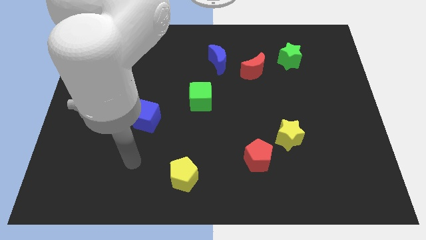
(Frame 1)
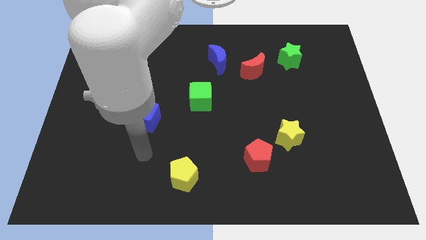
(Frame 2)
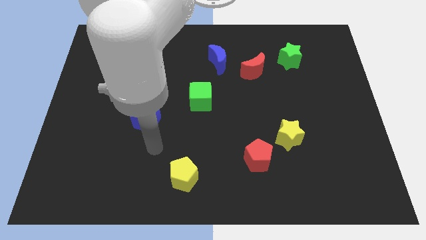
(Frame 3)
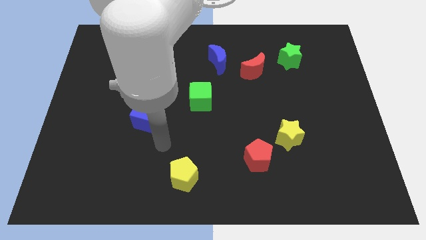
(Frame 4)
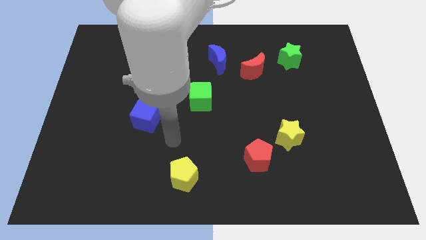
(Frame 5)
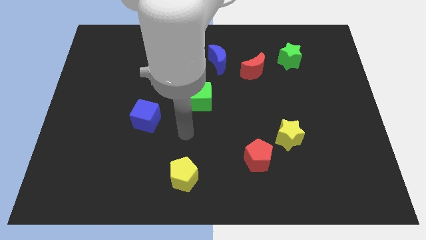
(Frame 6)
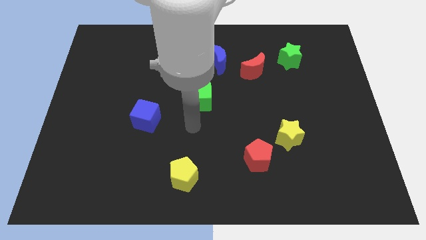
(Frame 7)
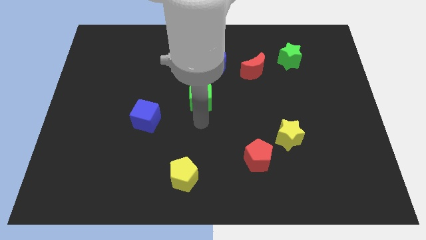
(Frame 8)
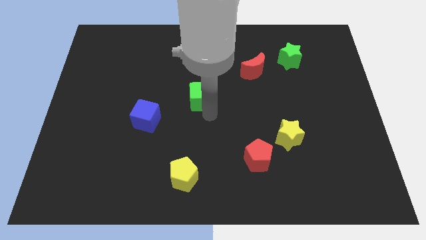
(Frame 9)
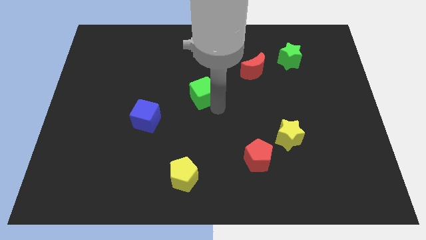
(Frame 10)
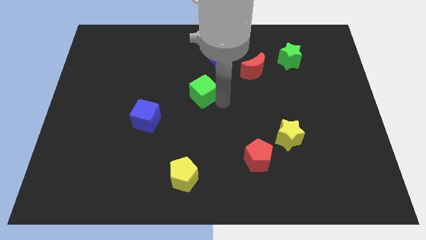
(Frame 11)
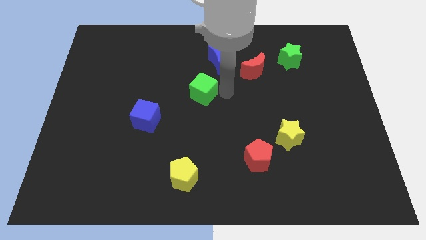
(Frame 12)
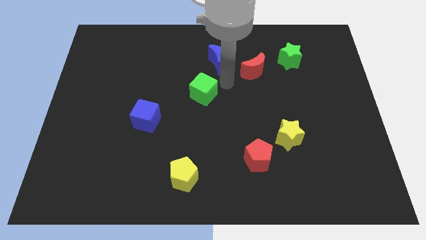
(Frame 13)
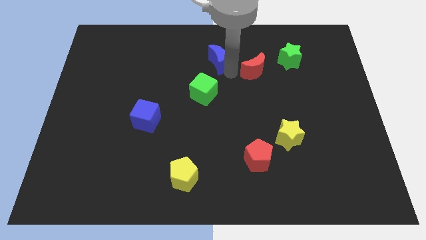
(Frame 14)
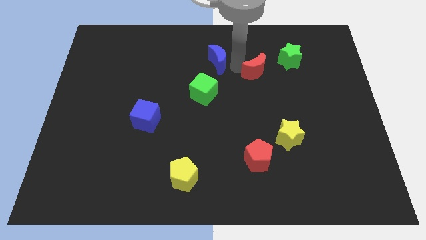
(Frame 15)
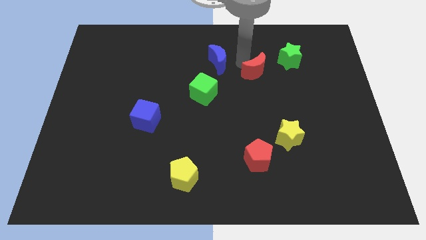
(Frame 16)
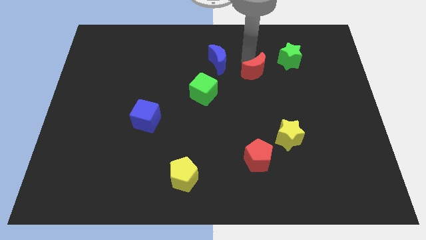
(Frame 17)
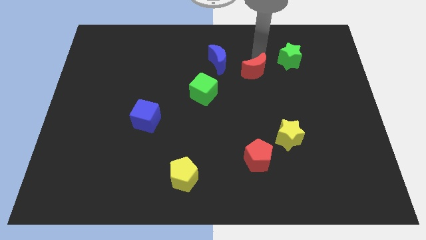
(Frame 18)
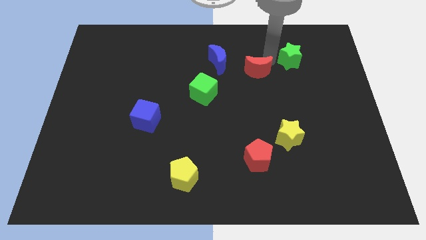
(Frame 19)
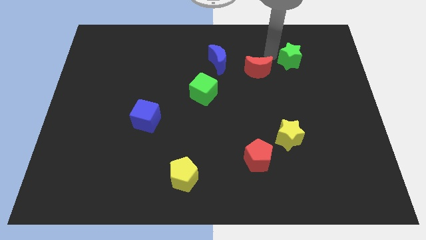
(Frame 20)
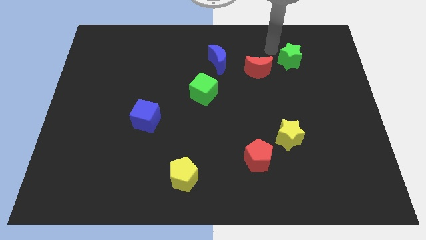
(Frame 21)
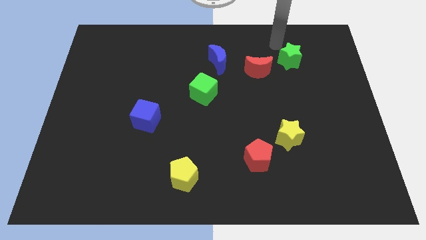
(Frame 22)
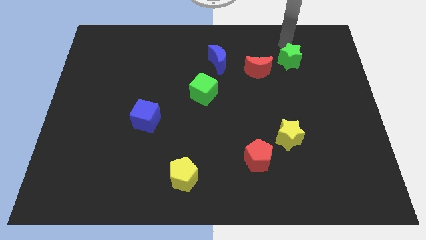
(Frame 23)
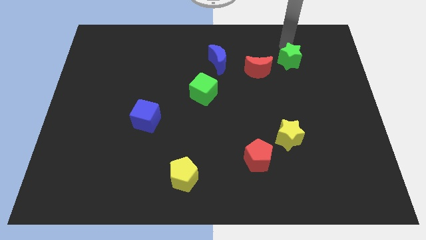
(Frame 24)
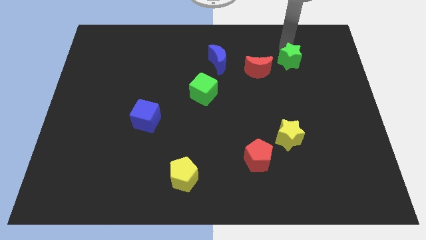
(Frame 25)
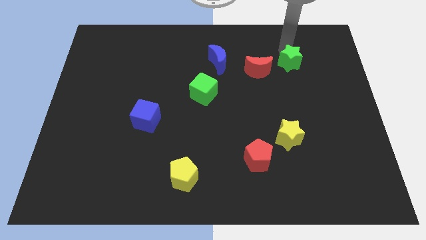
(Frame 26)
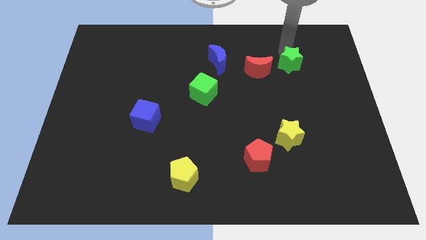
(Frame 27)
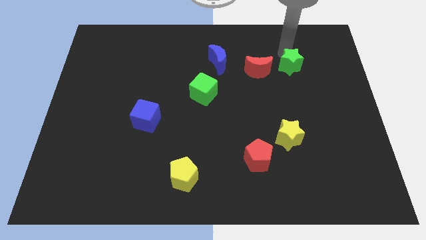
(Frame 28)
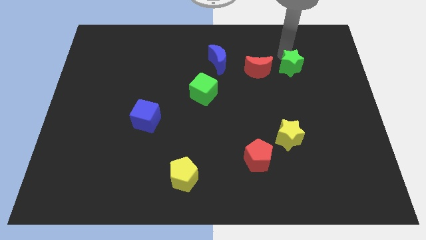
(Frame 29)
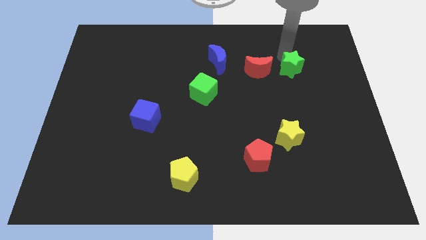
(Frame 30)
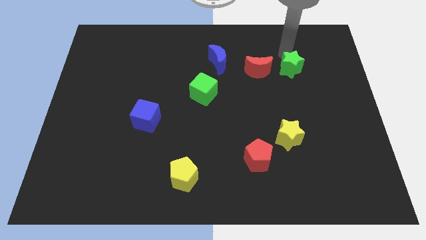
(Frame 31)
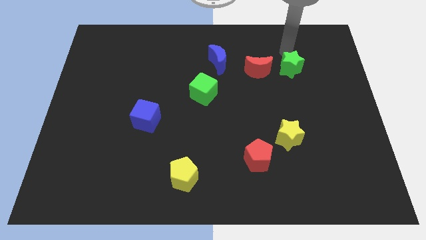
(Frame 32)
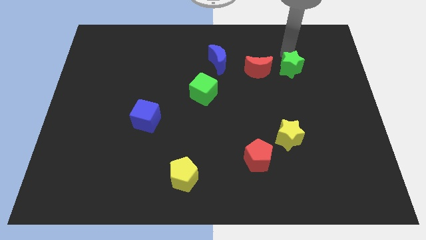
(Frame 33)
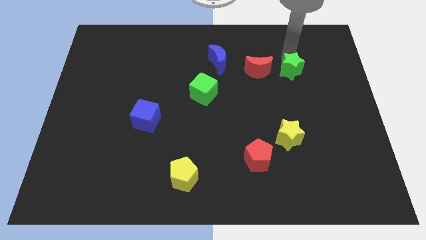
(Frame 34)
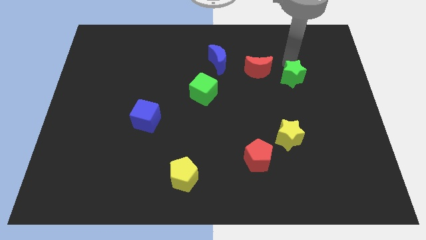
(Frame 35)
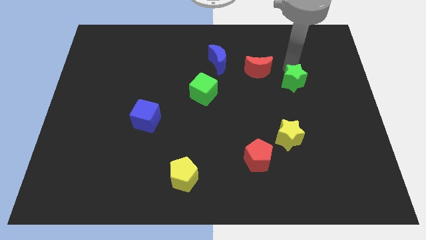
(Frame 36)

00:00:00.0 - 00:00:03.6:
push the green star downwards slightly

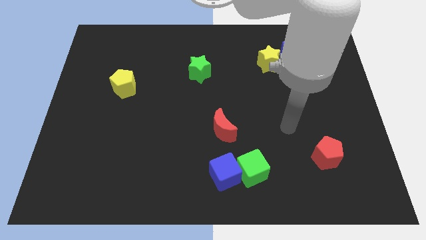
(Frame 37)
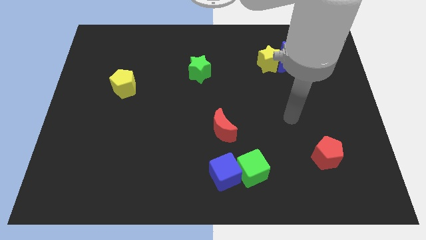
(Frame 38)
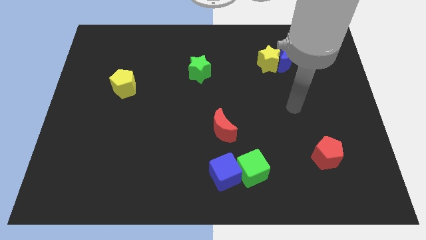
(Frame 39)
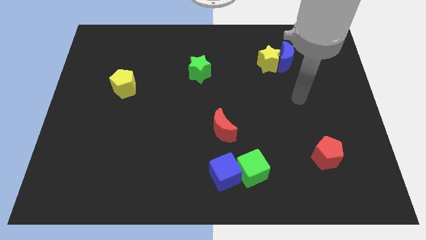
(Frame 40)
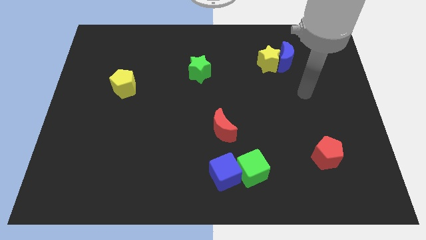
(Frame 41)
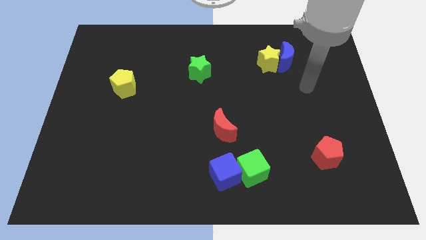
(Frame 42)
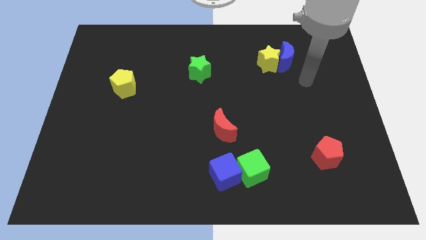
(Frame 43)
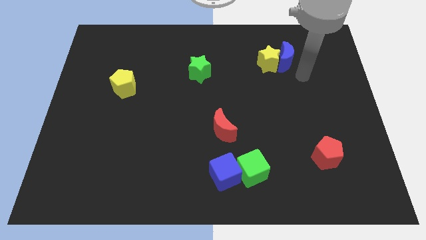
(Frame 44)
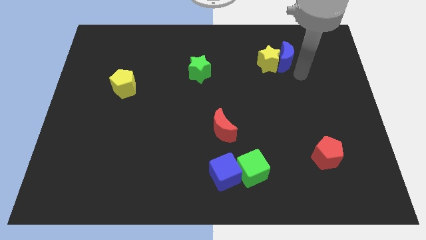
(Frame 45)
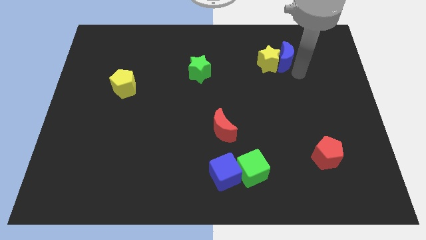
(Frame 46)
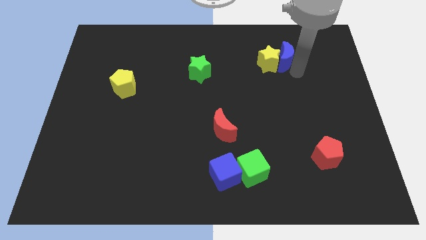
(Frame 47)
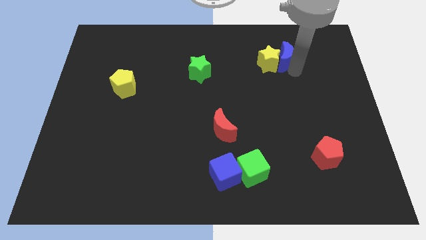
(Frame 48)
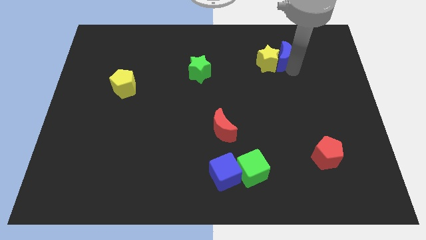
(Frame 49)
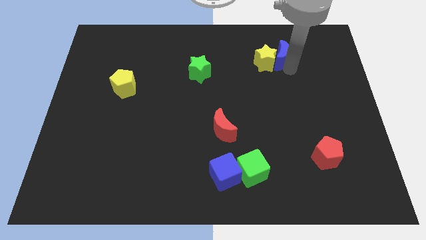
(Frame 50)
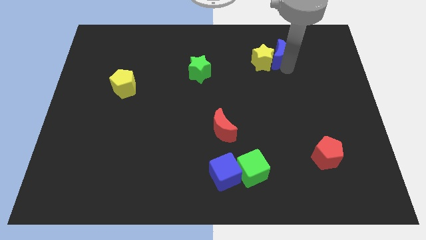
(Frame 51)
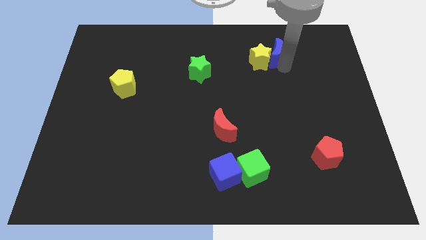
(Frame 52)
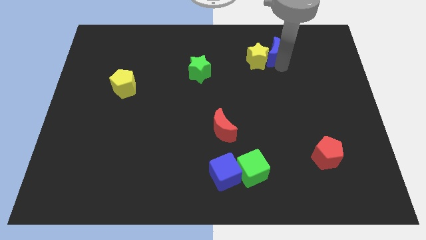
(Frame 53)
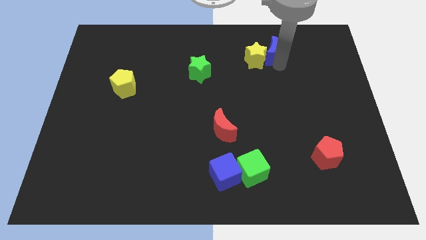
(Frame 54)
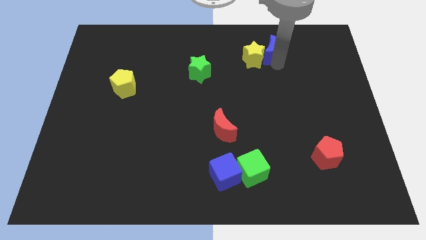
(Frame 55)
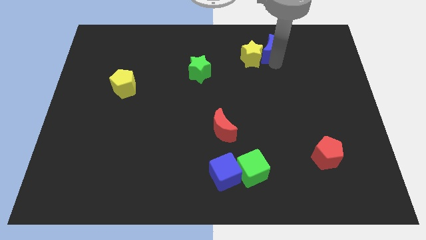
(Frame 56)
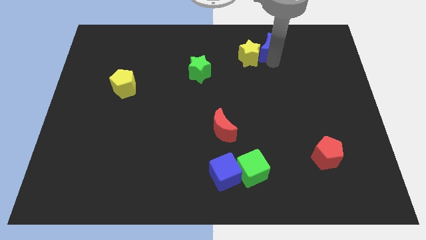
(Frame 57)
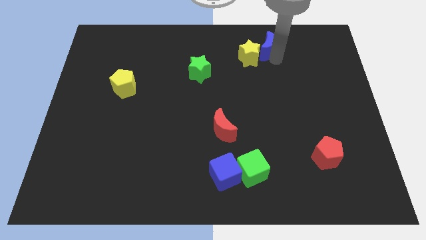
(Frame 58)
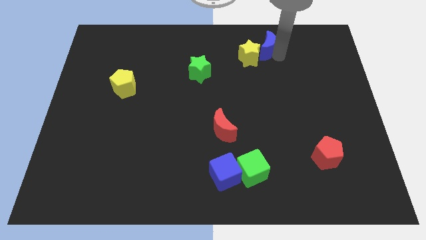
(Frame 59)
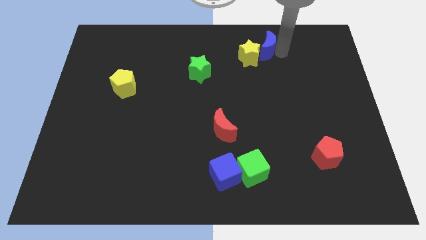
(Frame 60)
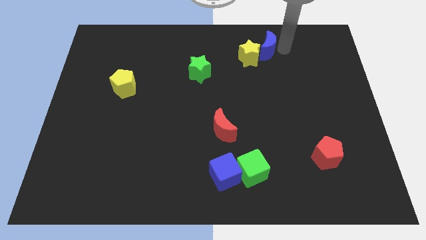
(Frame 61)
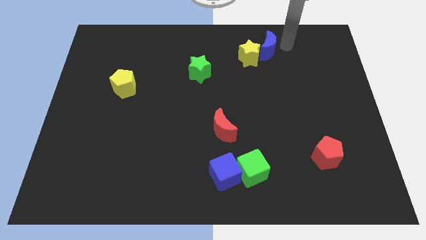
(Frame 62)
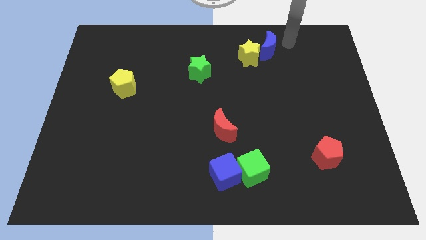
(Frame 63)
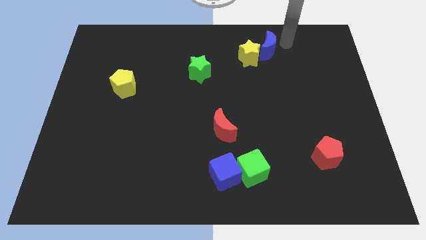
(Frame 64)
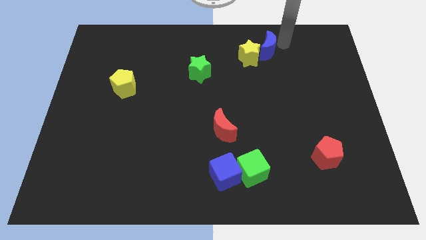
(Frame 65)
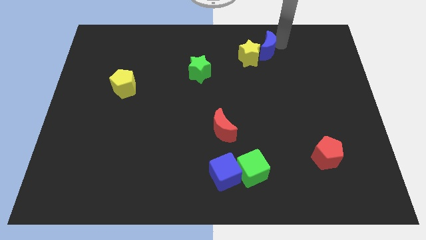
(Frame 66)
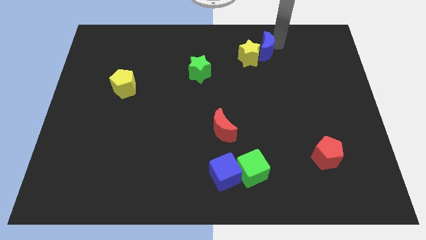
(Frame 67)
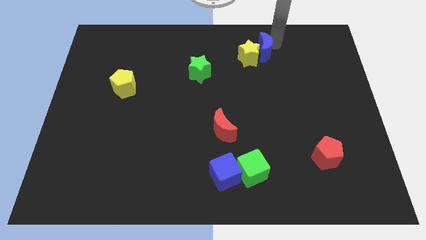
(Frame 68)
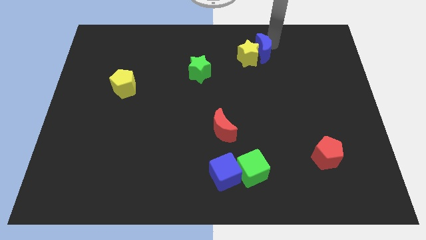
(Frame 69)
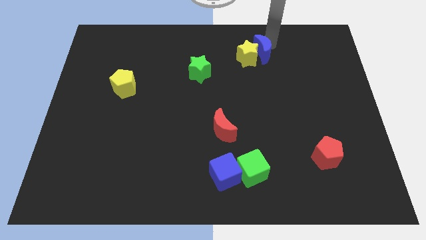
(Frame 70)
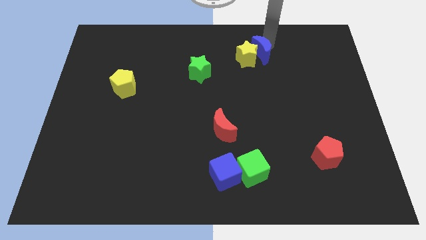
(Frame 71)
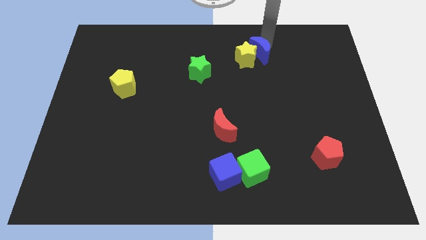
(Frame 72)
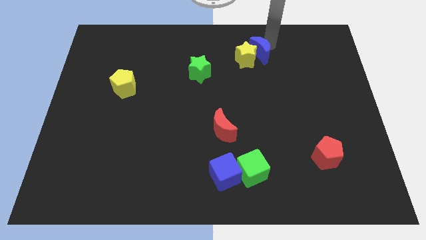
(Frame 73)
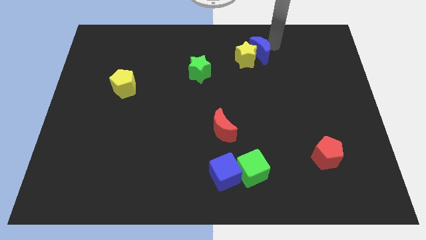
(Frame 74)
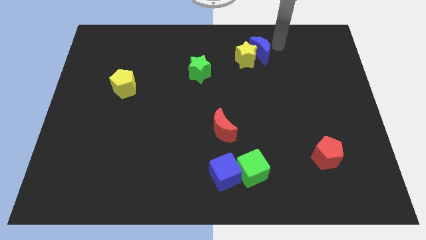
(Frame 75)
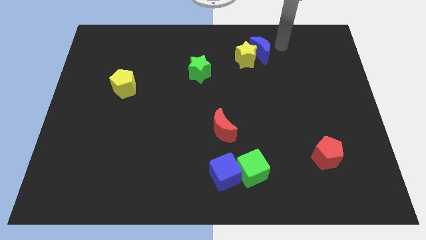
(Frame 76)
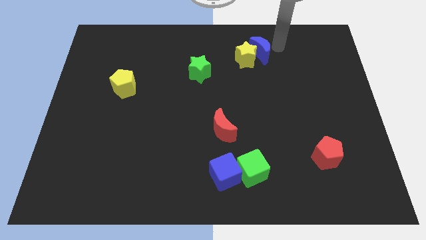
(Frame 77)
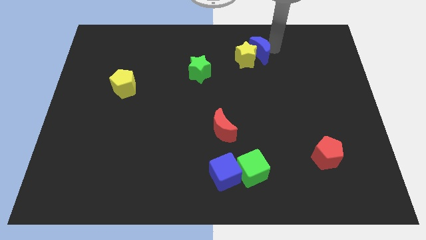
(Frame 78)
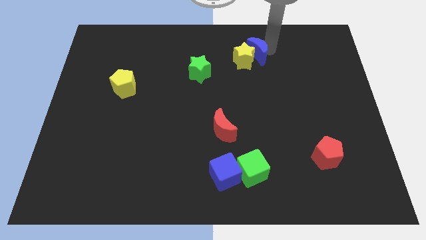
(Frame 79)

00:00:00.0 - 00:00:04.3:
slide the blue moon a little left

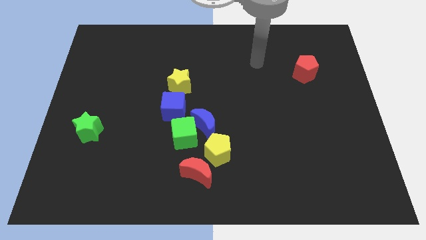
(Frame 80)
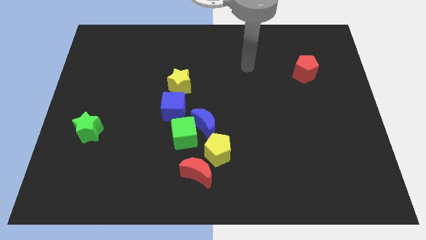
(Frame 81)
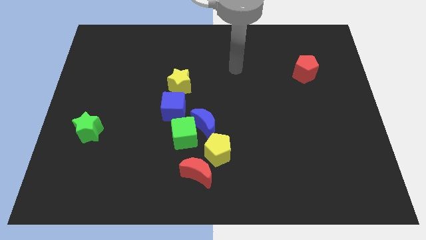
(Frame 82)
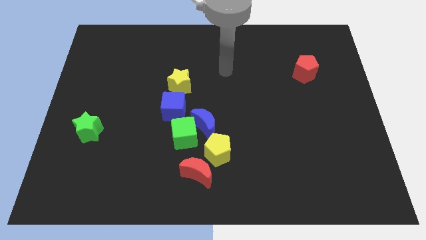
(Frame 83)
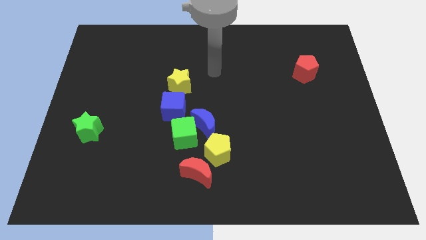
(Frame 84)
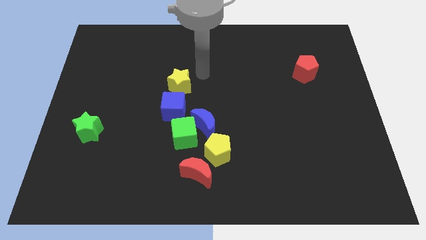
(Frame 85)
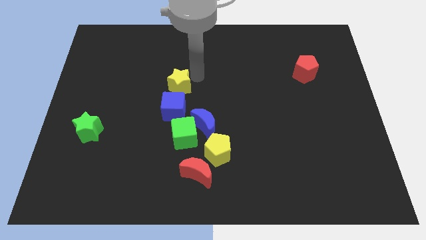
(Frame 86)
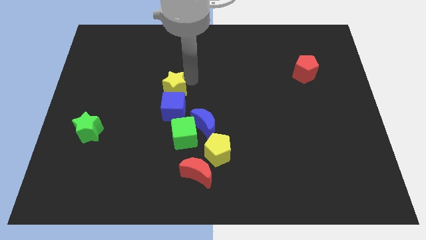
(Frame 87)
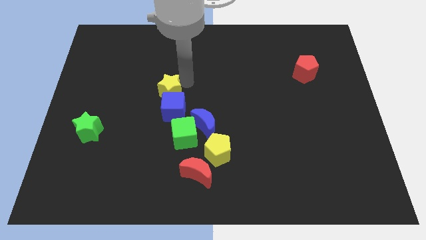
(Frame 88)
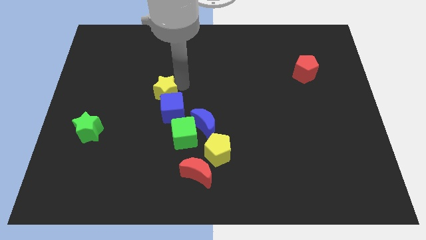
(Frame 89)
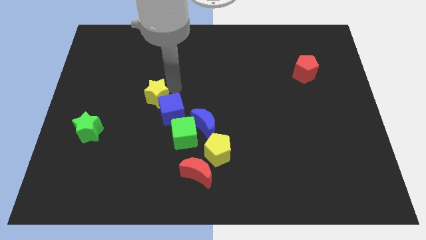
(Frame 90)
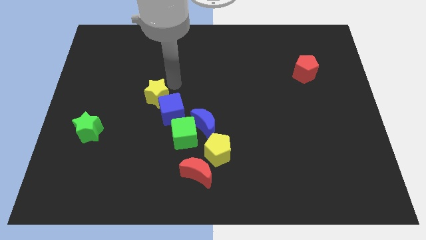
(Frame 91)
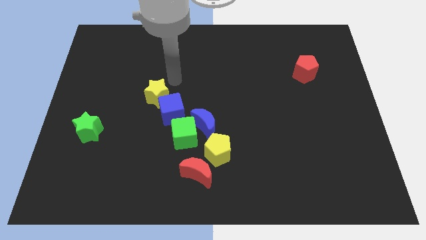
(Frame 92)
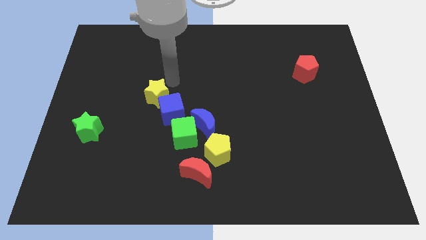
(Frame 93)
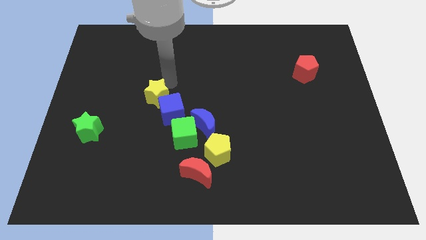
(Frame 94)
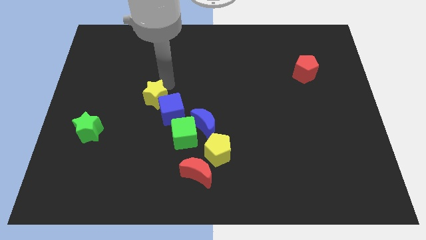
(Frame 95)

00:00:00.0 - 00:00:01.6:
move the yellow star downwards and then to the left somewhat
